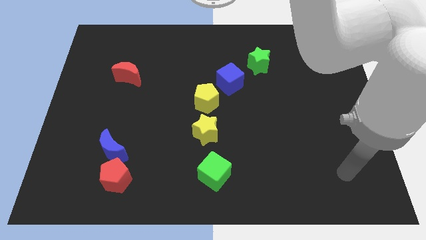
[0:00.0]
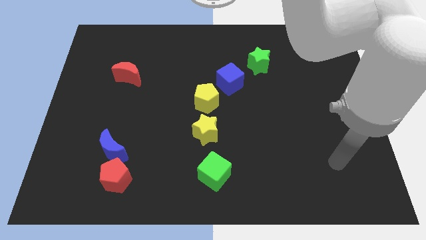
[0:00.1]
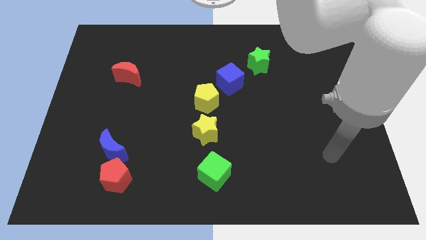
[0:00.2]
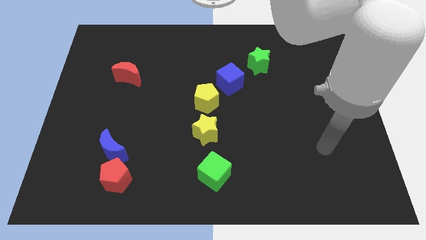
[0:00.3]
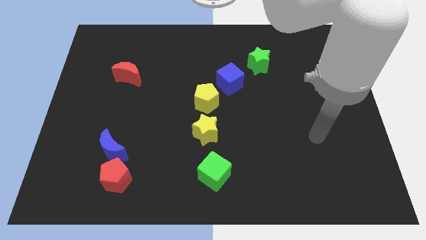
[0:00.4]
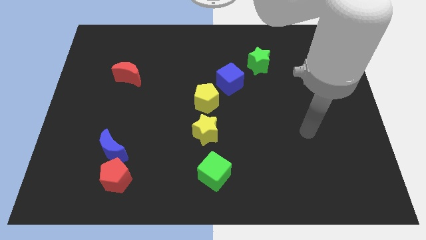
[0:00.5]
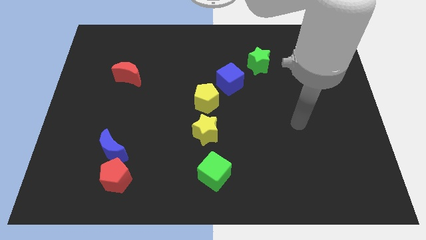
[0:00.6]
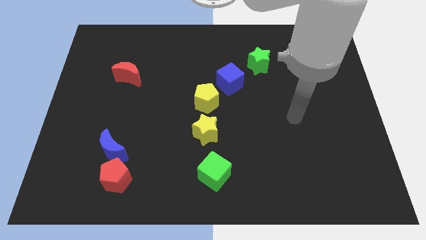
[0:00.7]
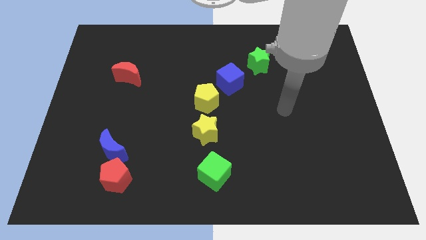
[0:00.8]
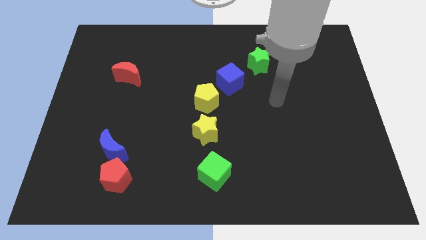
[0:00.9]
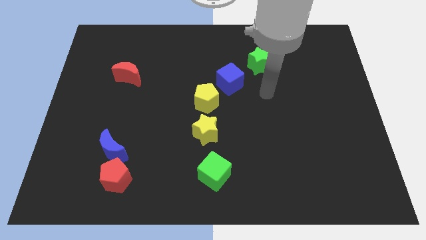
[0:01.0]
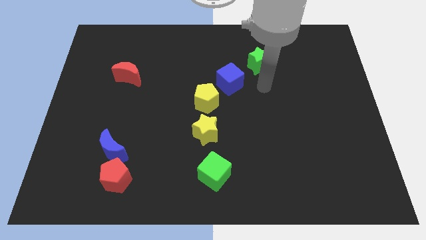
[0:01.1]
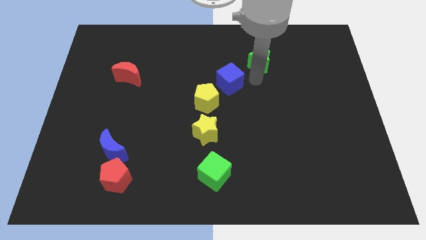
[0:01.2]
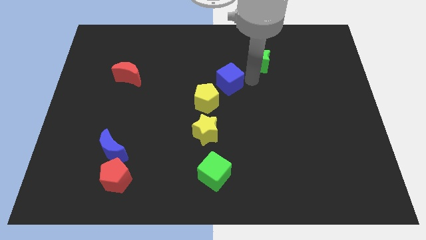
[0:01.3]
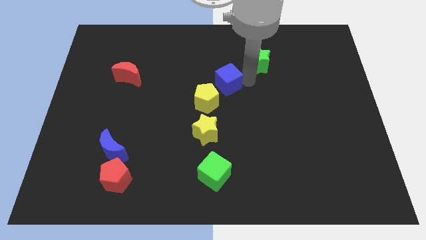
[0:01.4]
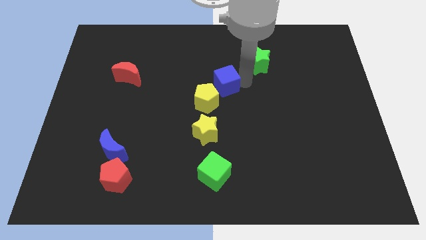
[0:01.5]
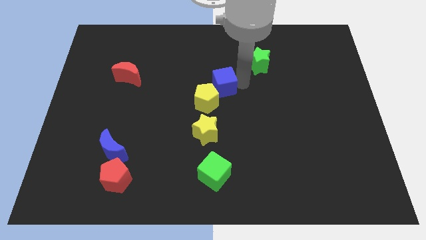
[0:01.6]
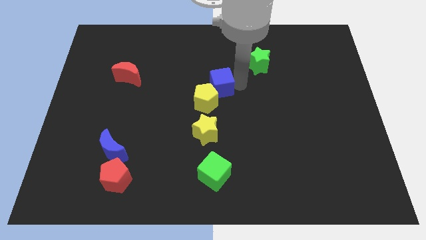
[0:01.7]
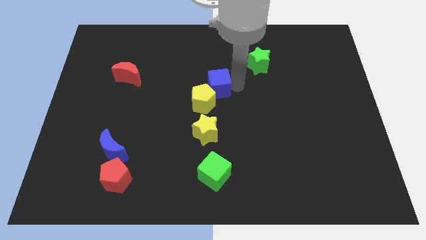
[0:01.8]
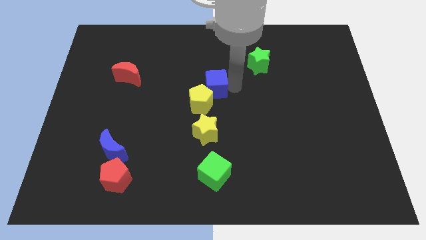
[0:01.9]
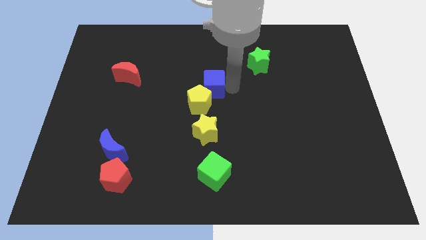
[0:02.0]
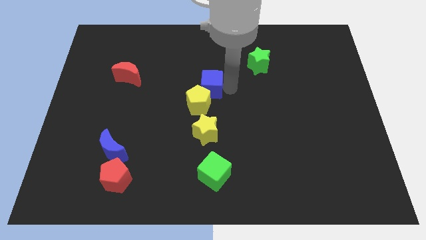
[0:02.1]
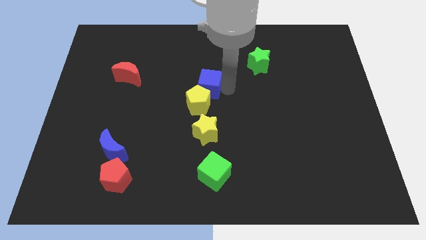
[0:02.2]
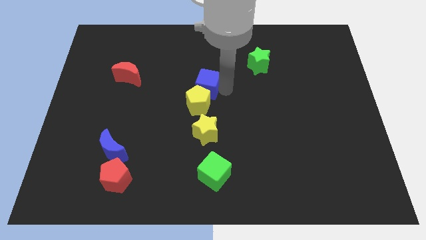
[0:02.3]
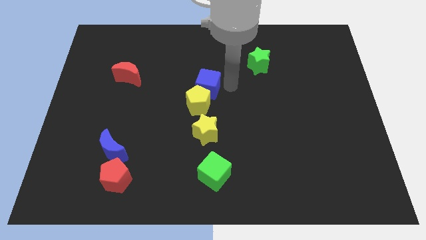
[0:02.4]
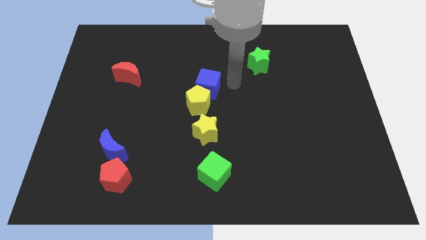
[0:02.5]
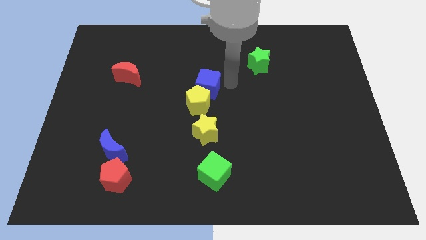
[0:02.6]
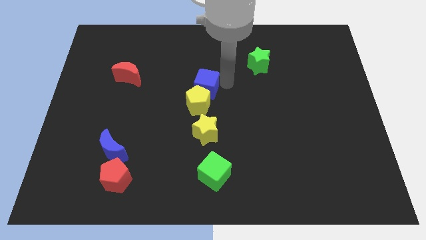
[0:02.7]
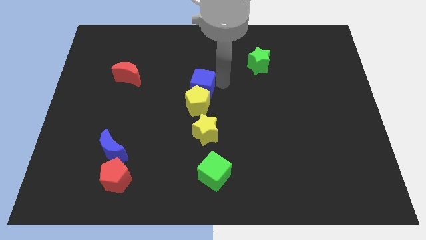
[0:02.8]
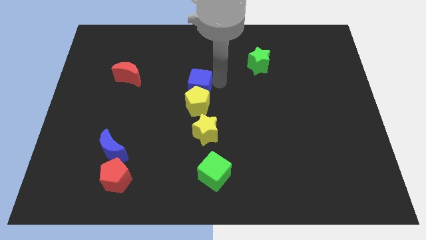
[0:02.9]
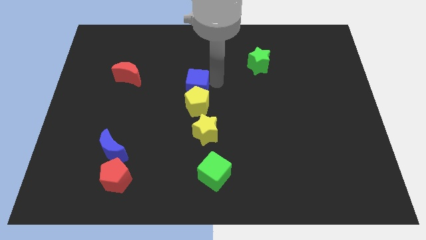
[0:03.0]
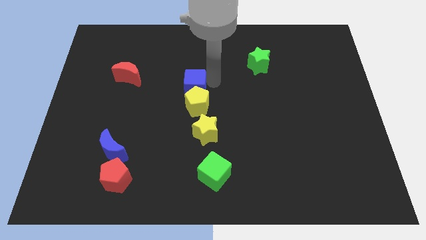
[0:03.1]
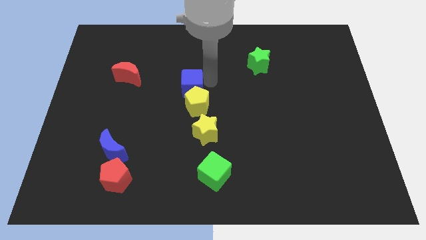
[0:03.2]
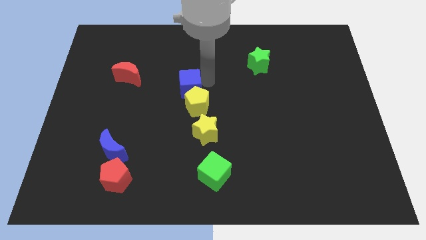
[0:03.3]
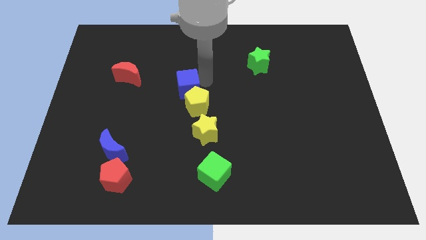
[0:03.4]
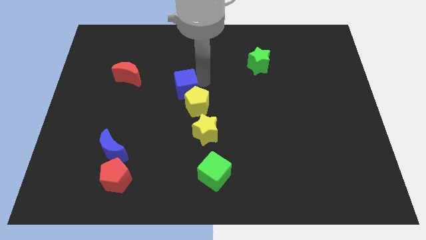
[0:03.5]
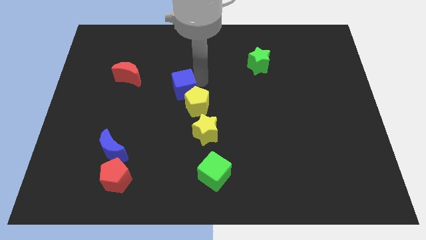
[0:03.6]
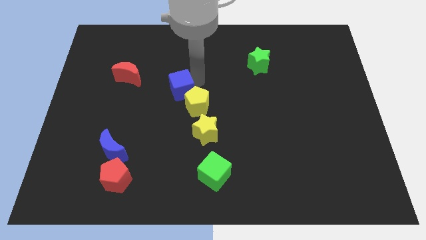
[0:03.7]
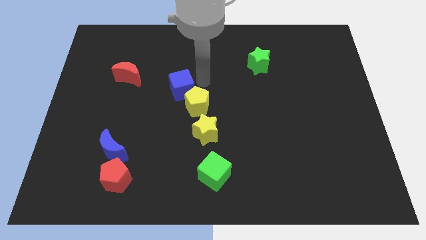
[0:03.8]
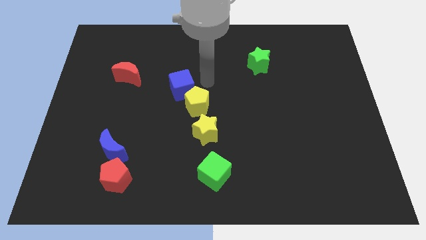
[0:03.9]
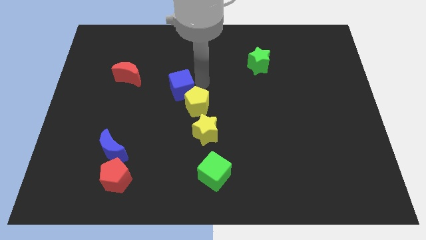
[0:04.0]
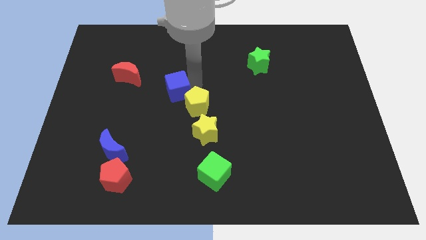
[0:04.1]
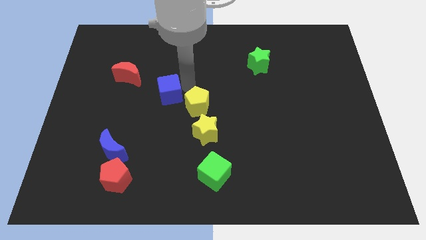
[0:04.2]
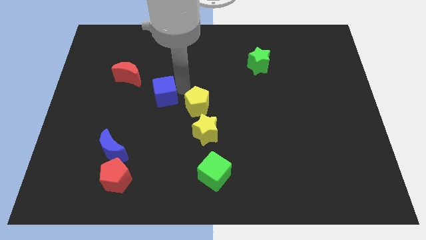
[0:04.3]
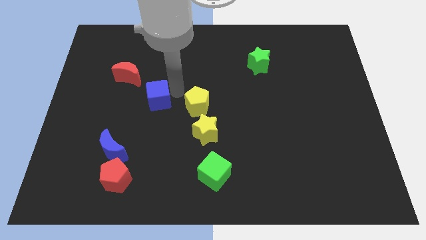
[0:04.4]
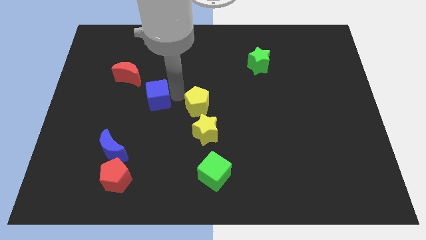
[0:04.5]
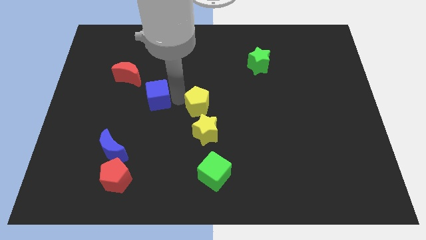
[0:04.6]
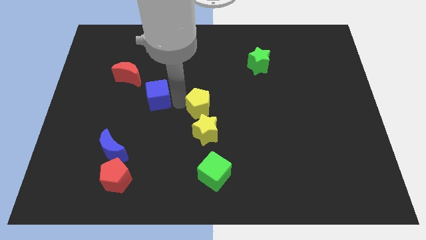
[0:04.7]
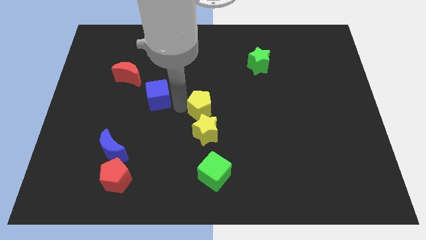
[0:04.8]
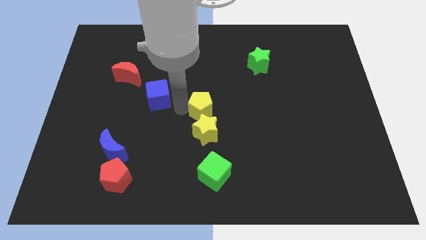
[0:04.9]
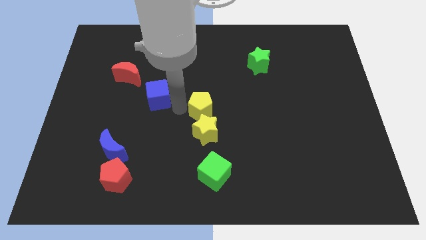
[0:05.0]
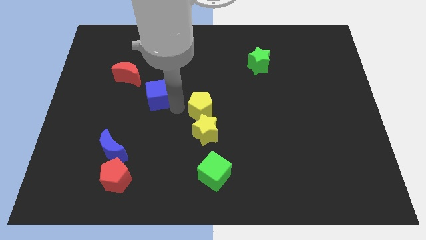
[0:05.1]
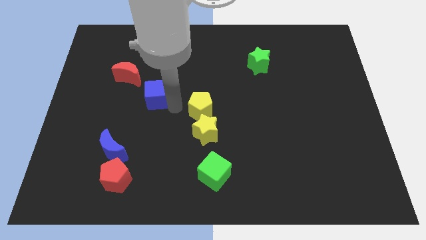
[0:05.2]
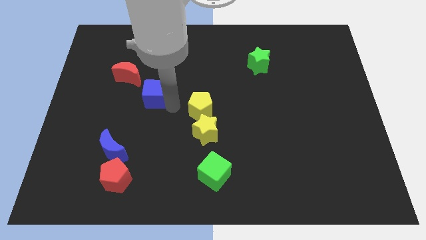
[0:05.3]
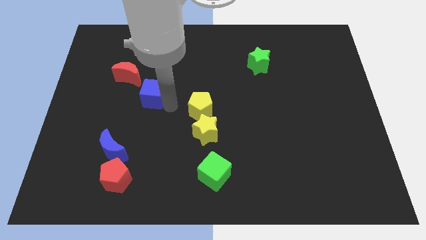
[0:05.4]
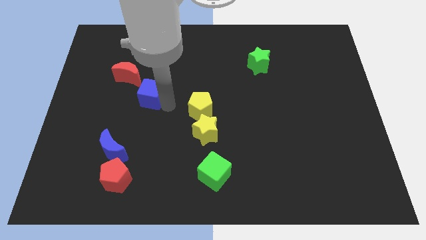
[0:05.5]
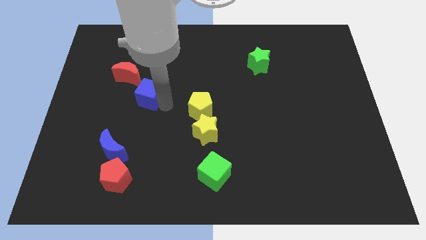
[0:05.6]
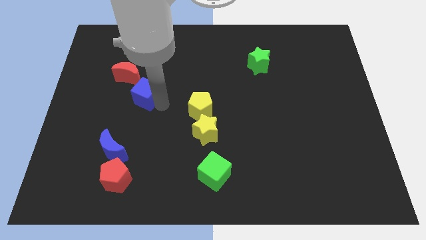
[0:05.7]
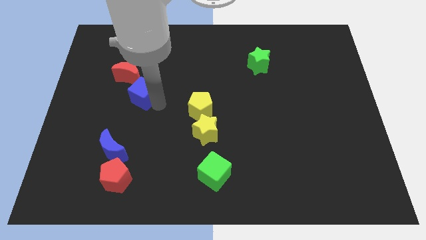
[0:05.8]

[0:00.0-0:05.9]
move the blue cube left

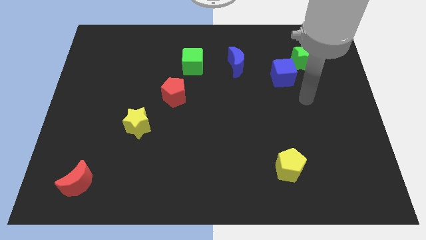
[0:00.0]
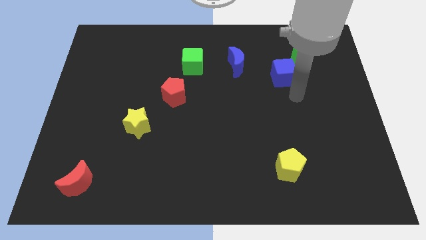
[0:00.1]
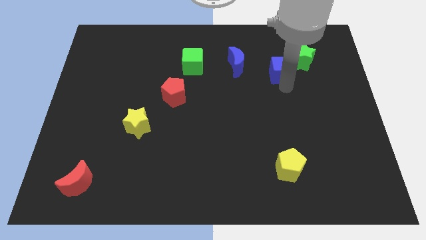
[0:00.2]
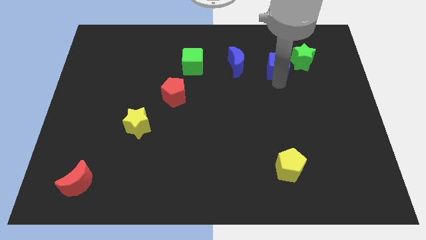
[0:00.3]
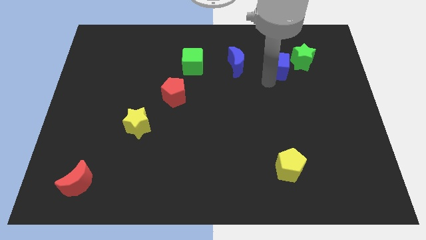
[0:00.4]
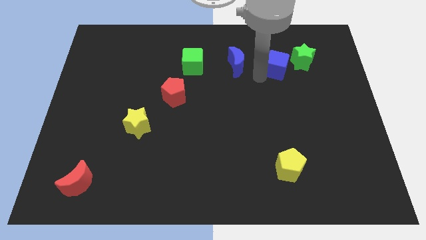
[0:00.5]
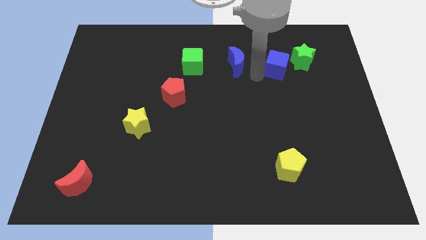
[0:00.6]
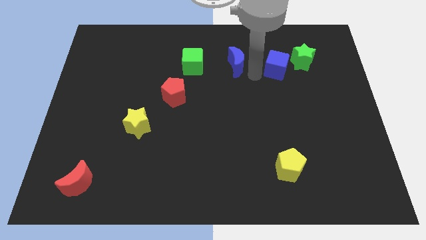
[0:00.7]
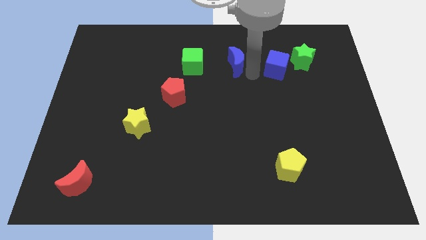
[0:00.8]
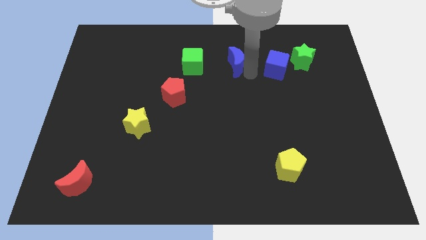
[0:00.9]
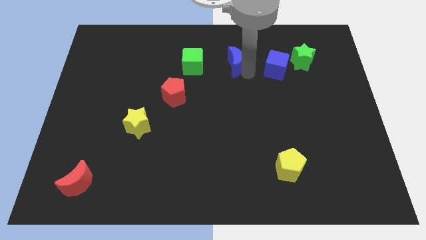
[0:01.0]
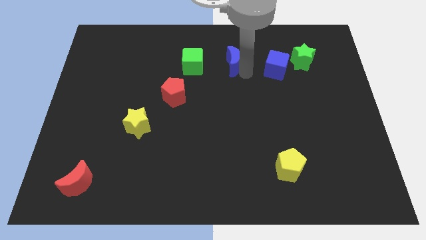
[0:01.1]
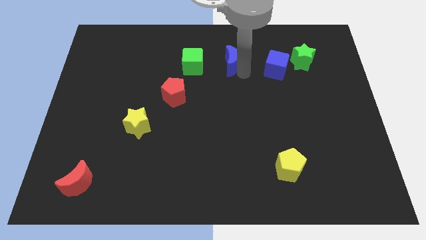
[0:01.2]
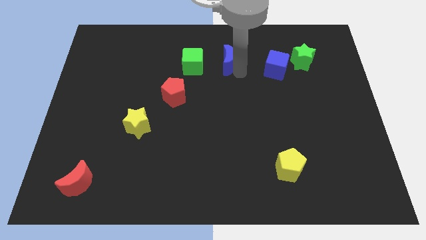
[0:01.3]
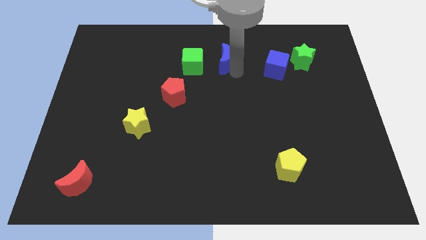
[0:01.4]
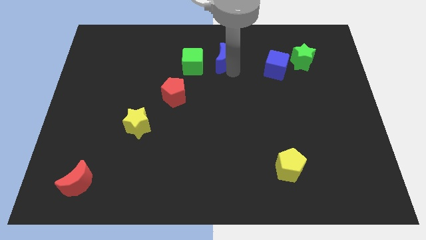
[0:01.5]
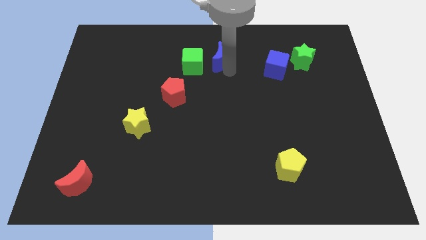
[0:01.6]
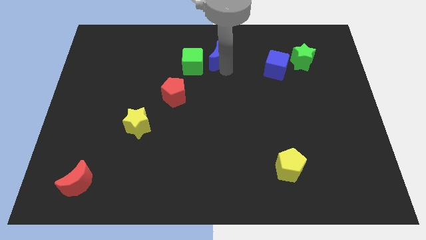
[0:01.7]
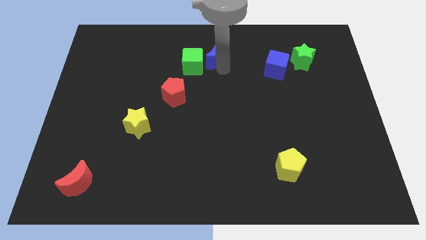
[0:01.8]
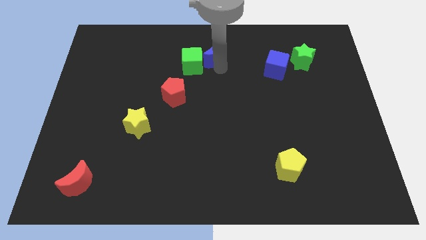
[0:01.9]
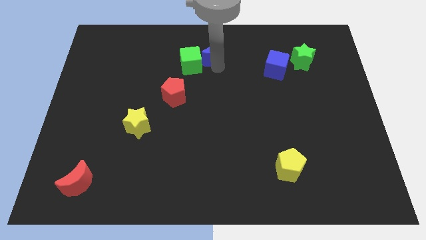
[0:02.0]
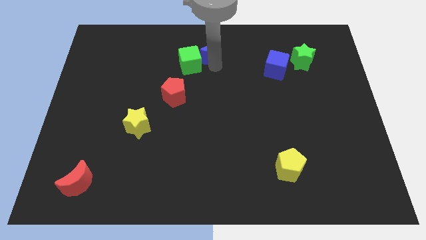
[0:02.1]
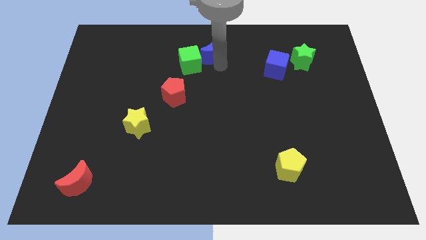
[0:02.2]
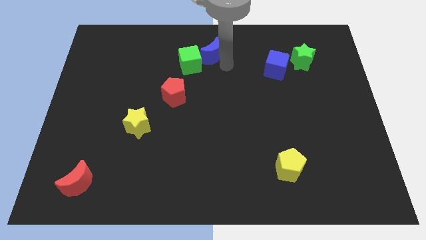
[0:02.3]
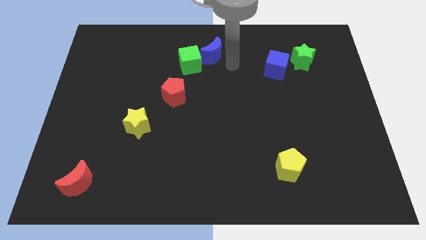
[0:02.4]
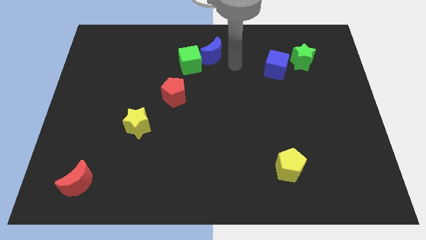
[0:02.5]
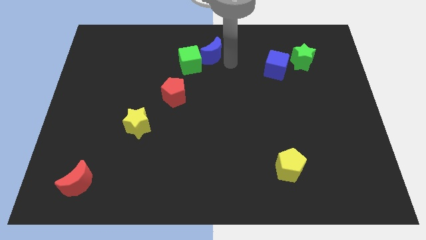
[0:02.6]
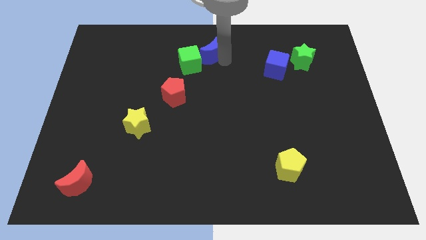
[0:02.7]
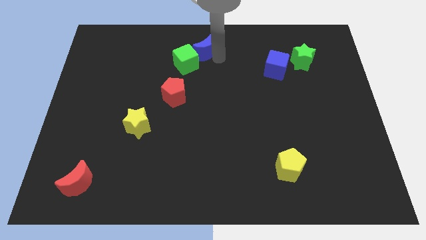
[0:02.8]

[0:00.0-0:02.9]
push the blue moon slightly left
